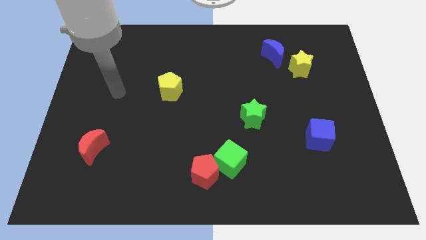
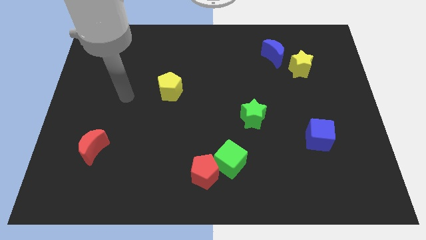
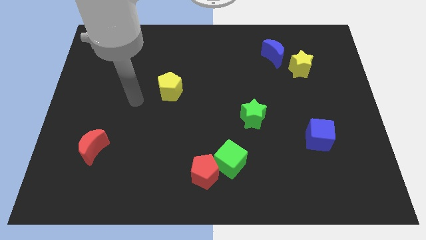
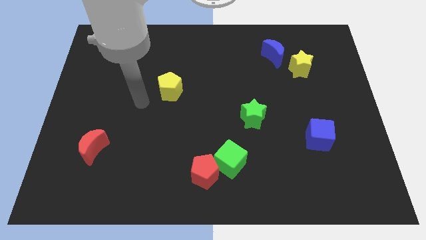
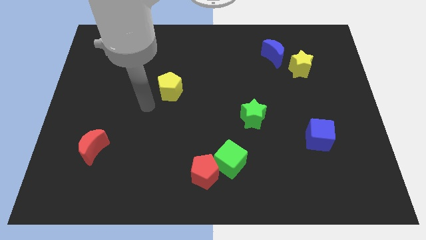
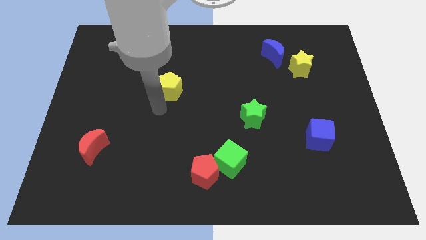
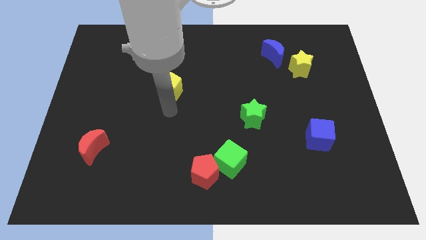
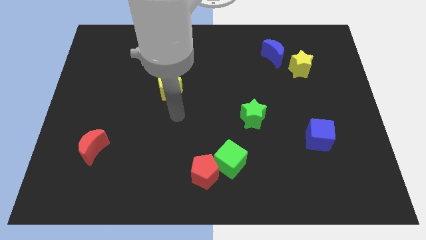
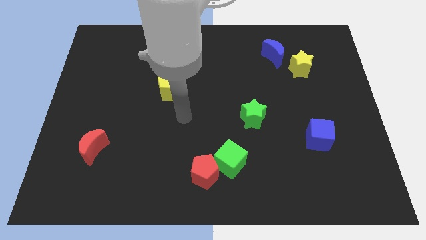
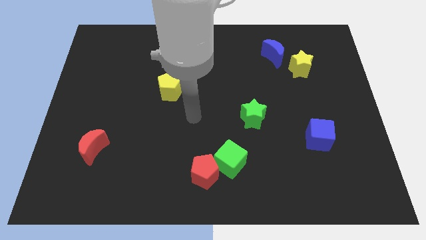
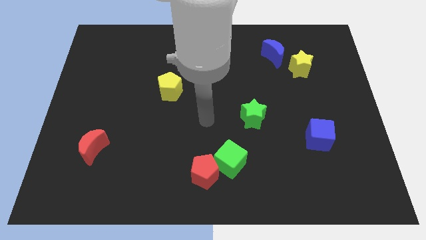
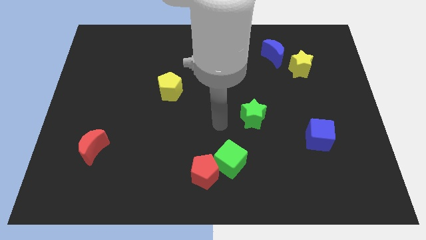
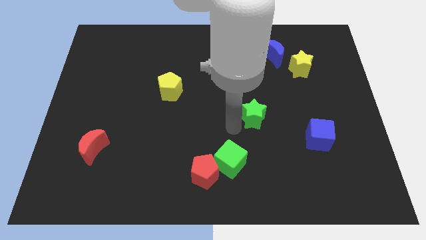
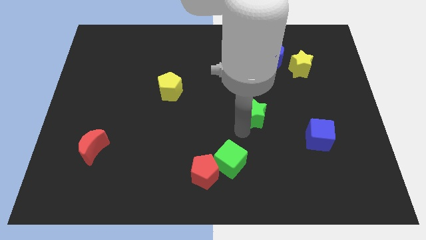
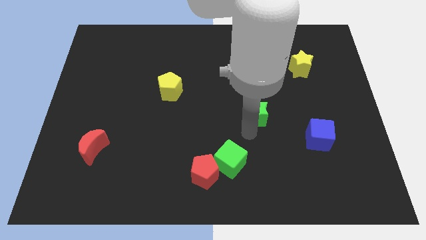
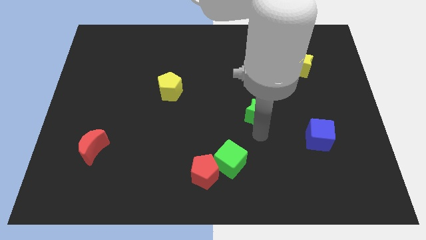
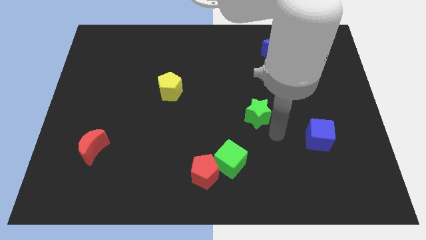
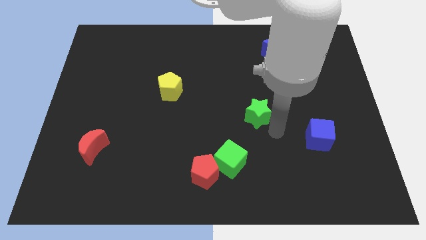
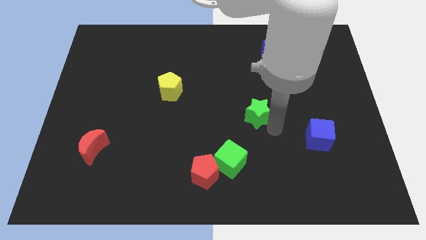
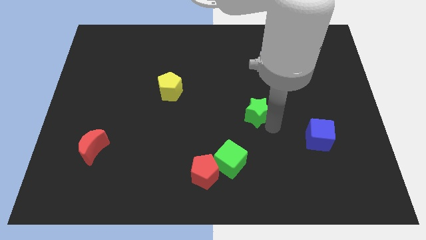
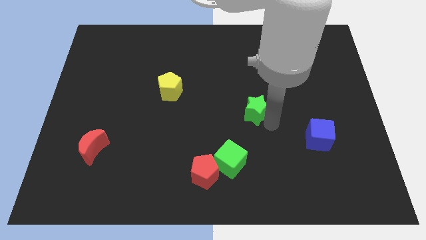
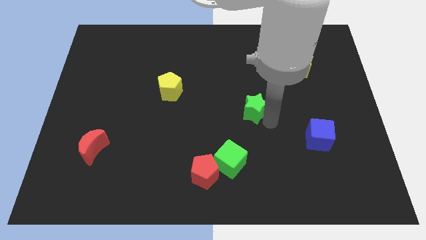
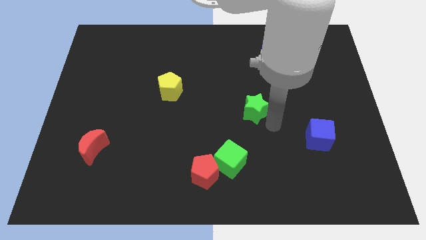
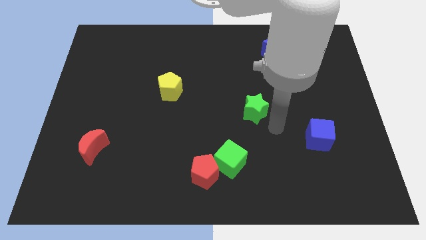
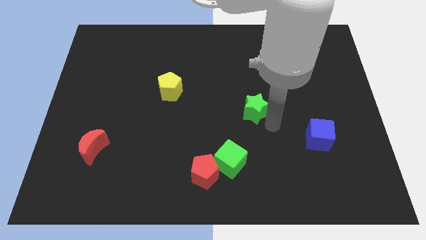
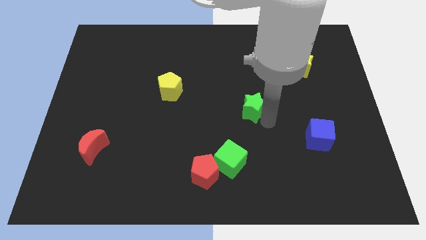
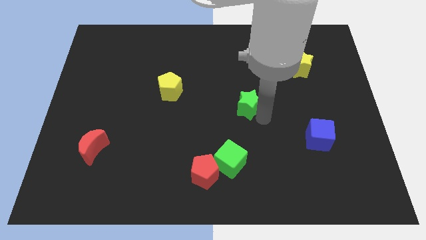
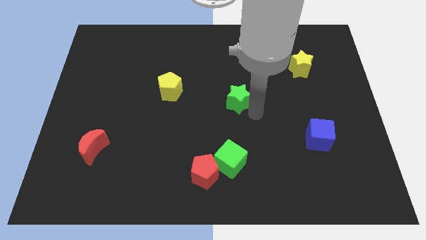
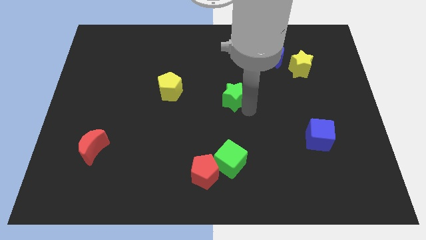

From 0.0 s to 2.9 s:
push the green star up and then to the left a little bit

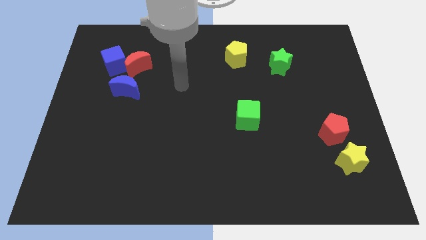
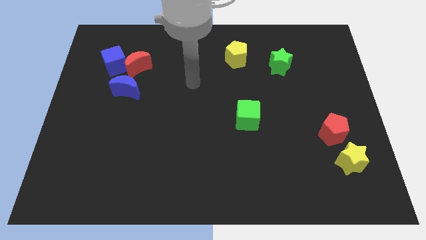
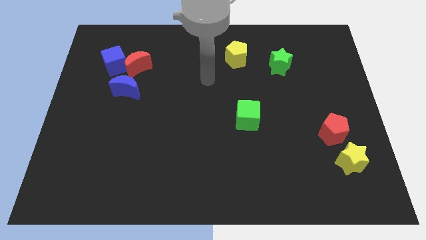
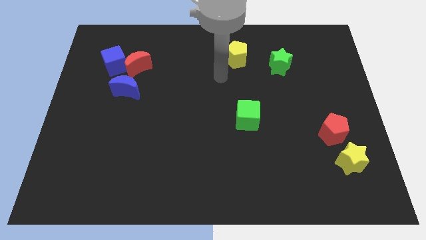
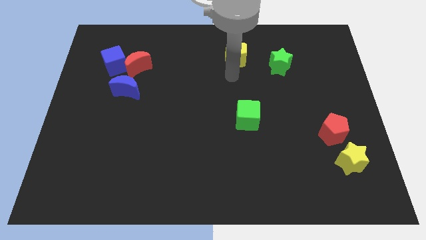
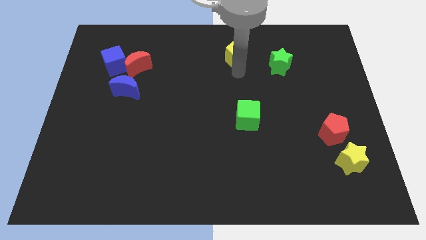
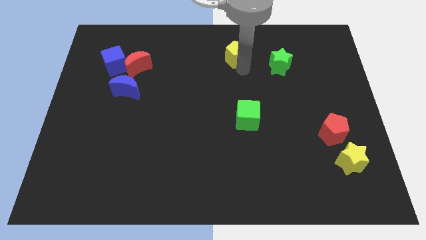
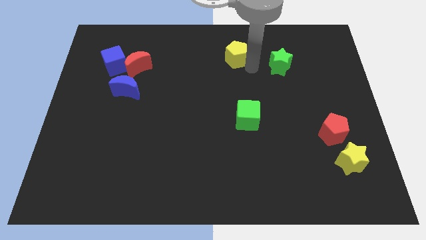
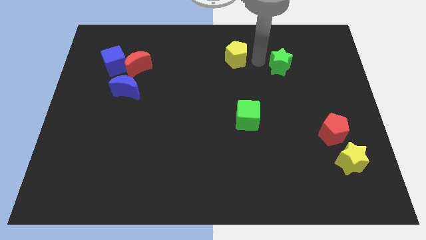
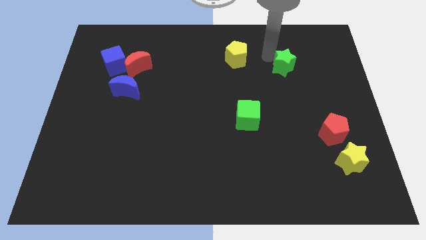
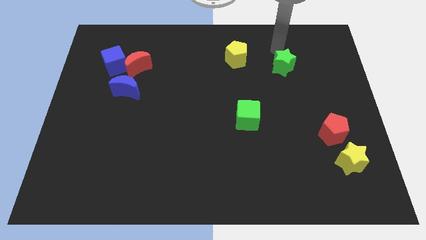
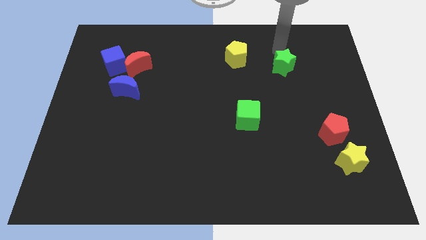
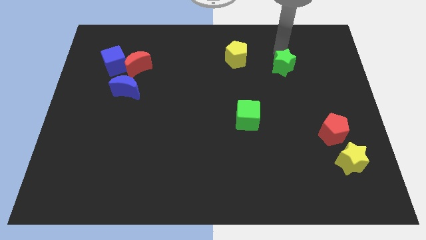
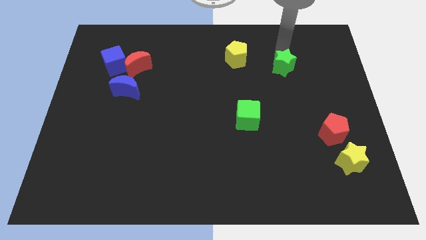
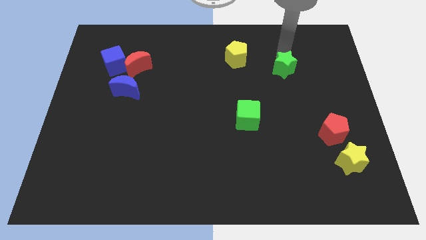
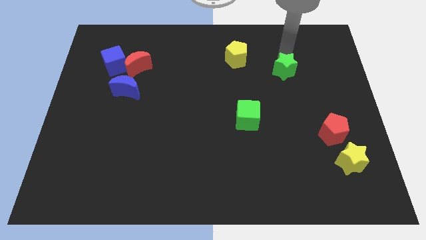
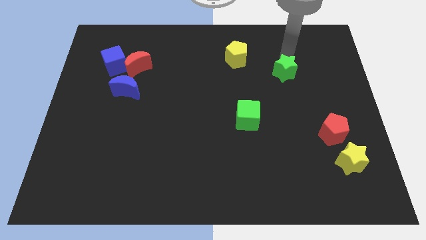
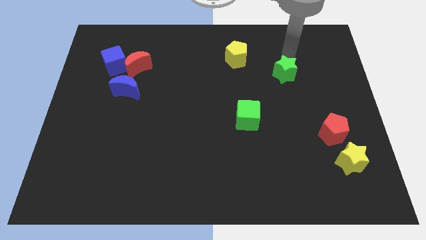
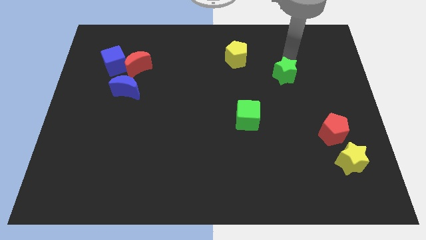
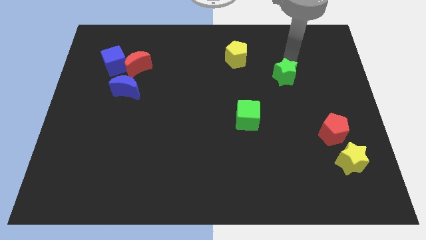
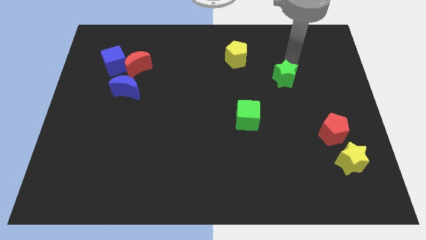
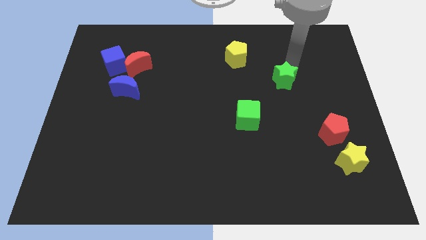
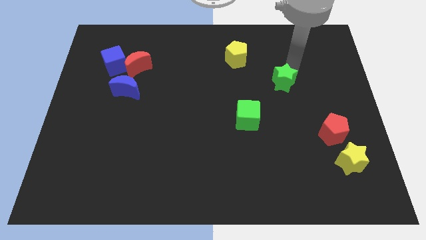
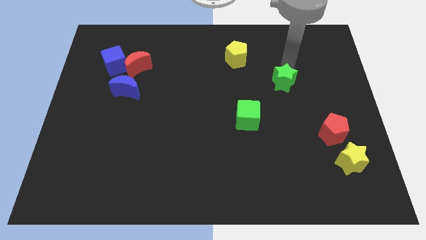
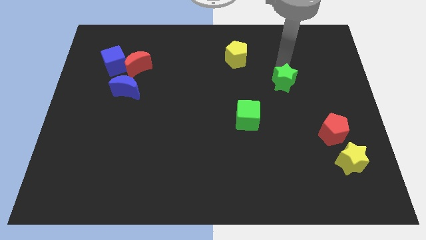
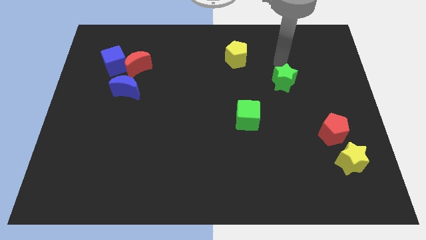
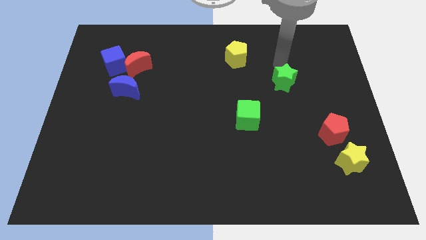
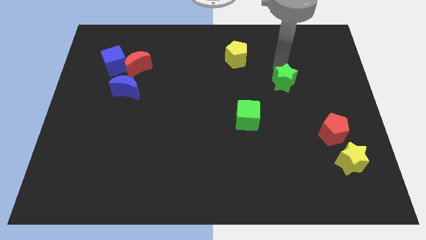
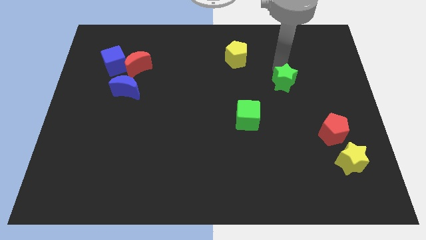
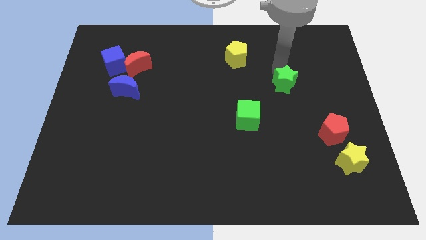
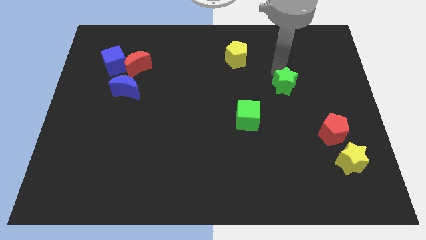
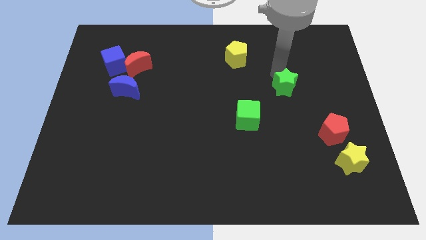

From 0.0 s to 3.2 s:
move the green star slightly downwards

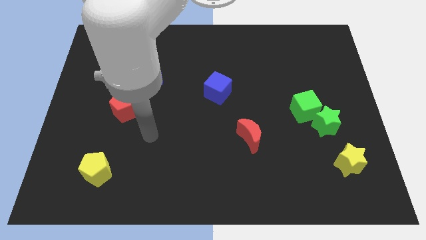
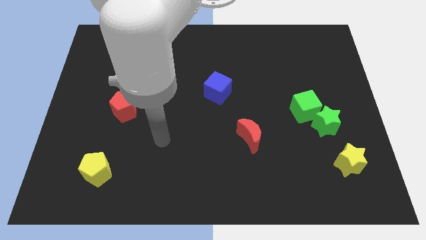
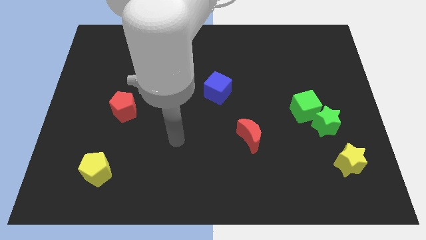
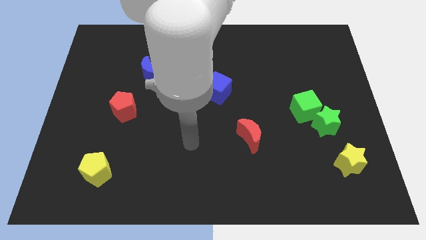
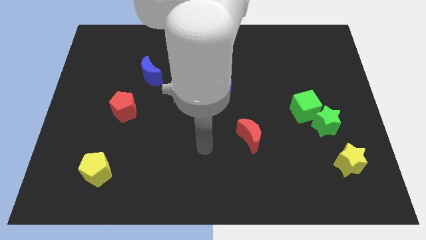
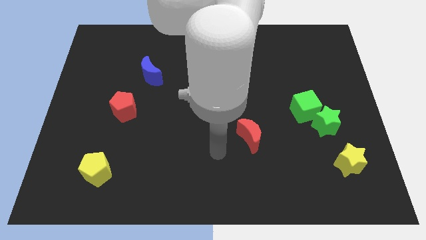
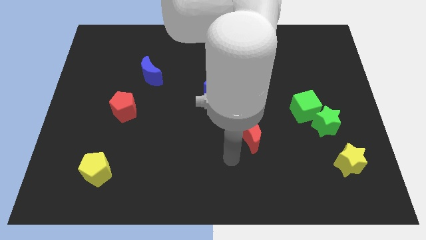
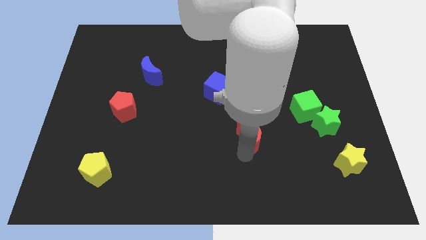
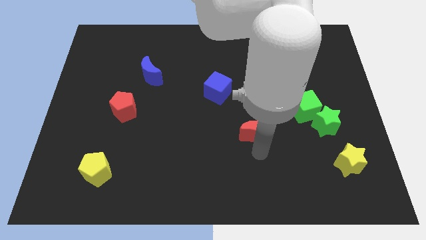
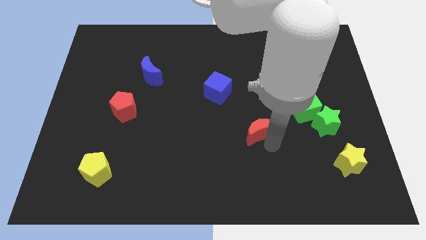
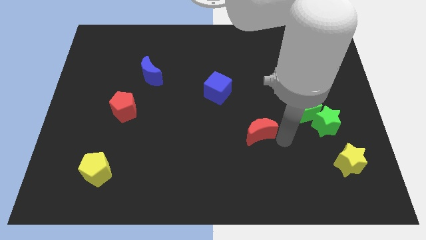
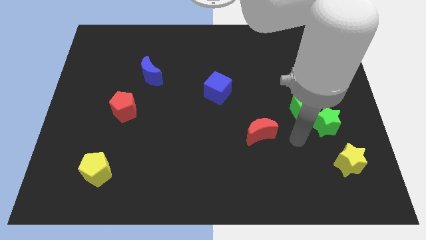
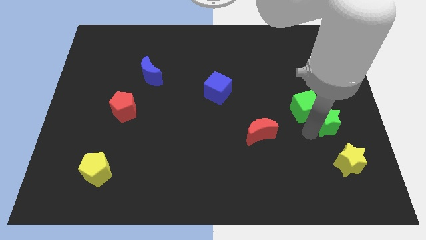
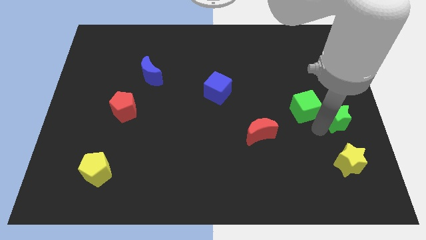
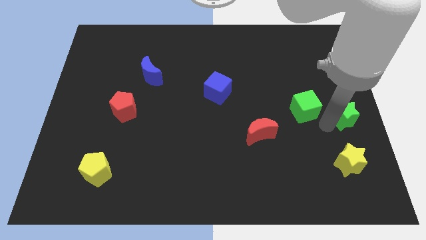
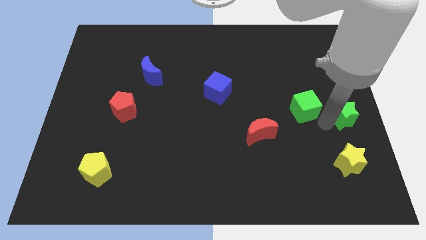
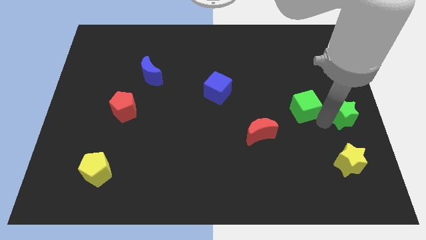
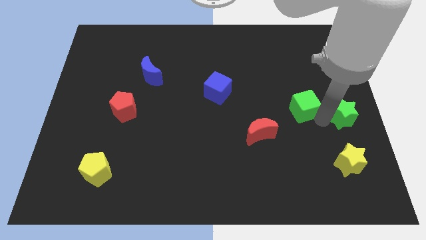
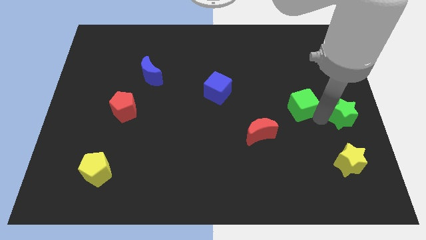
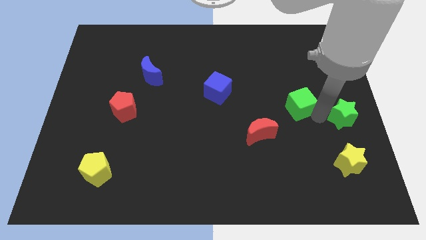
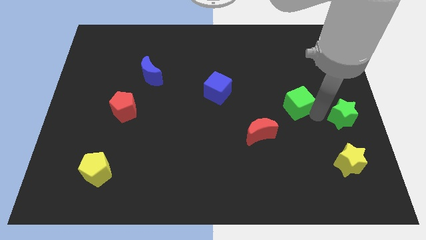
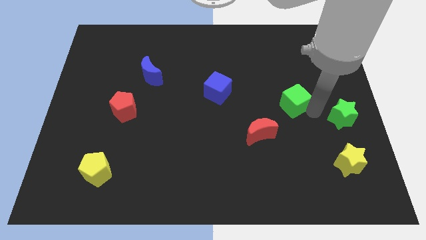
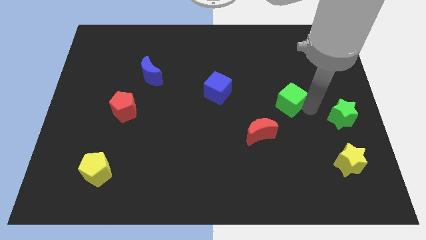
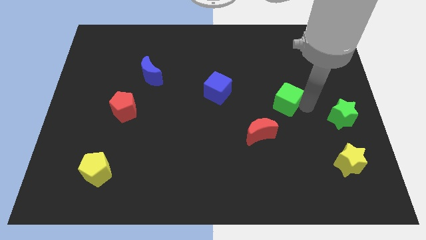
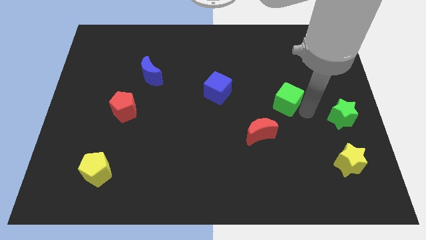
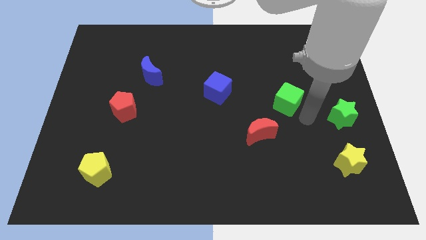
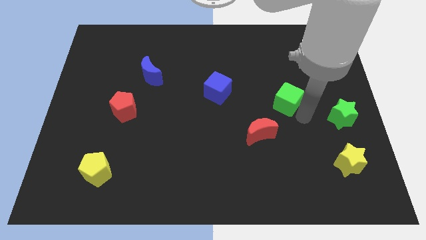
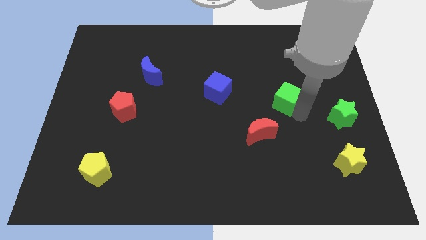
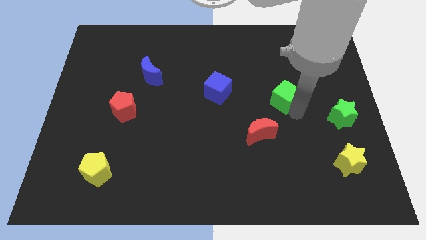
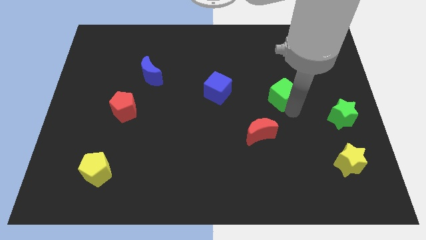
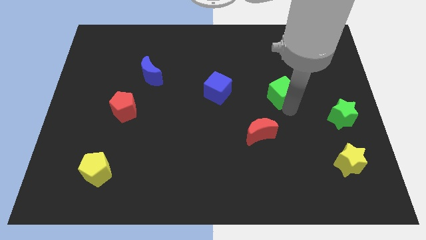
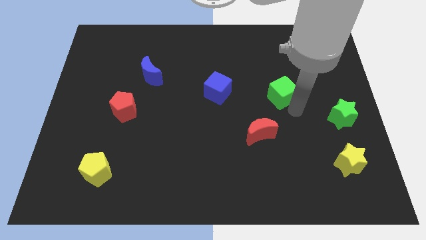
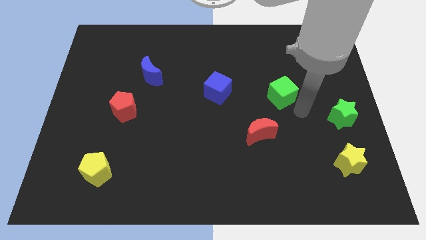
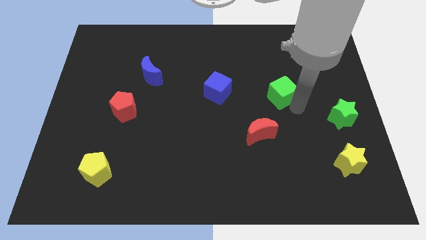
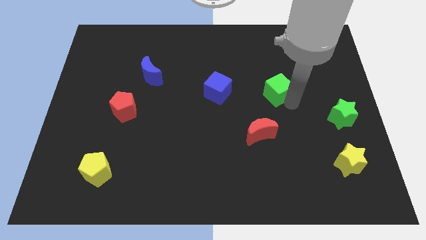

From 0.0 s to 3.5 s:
slightly move the green cube diagonally upwards and to the left
